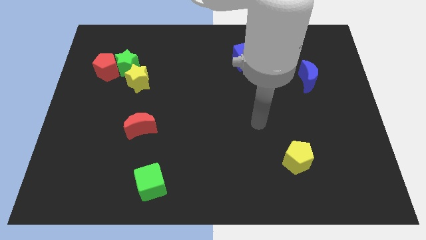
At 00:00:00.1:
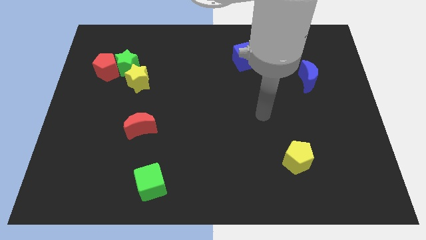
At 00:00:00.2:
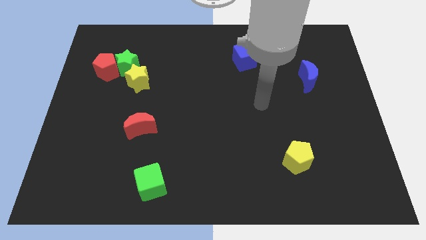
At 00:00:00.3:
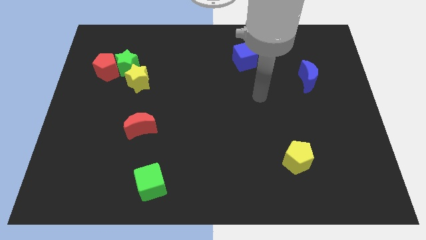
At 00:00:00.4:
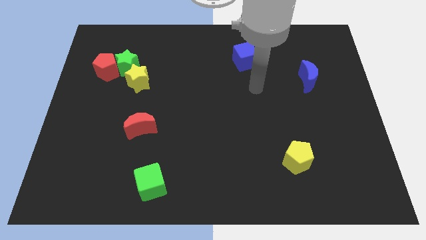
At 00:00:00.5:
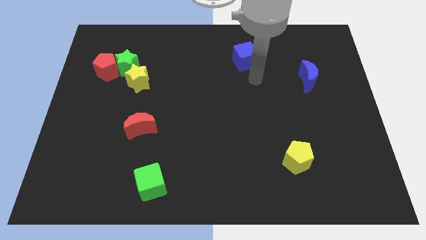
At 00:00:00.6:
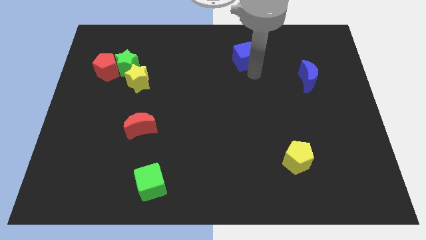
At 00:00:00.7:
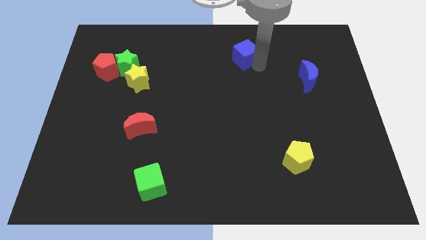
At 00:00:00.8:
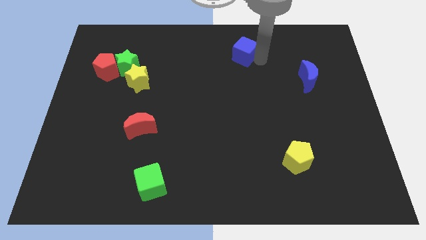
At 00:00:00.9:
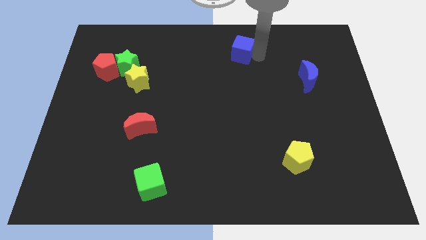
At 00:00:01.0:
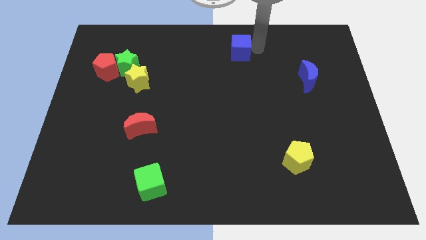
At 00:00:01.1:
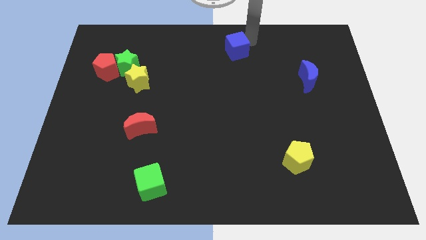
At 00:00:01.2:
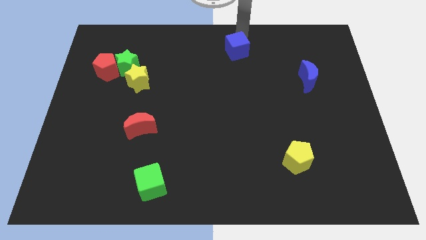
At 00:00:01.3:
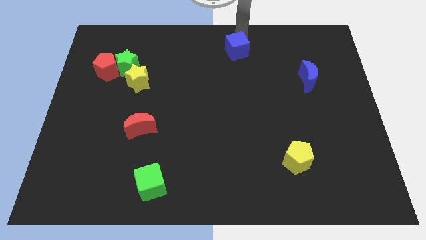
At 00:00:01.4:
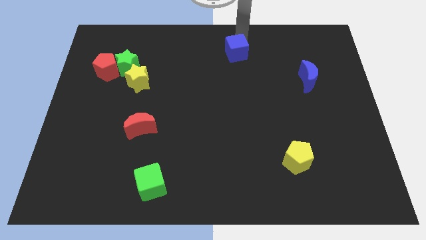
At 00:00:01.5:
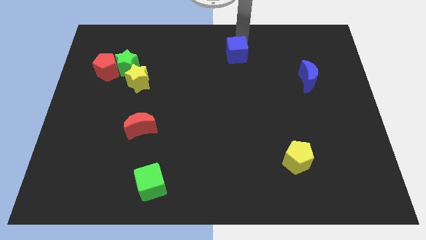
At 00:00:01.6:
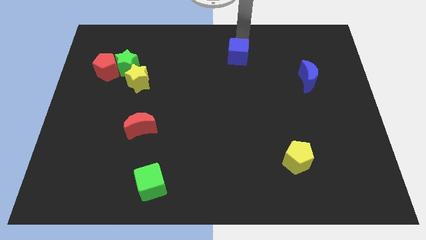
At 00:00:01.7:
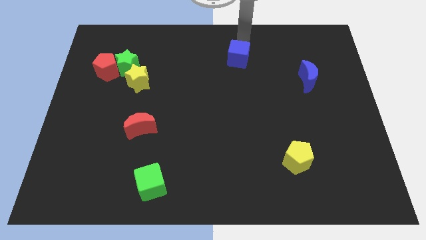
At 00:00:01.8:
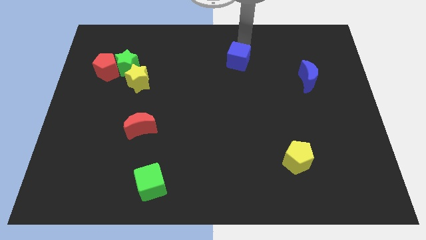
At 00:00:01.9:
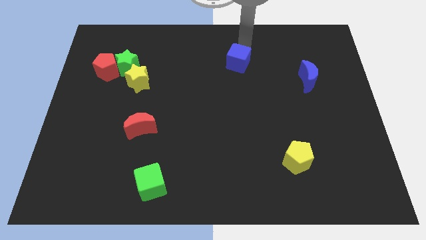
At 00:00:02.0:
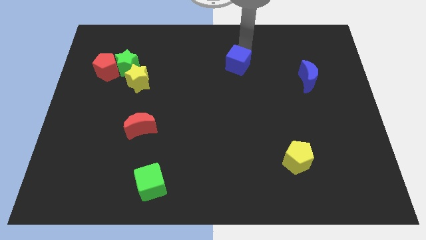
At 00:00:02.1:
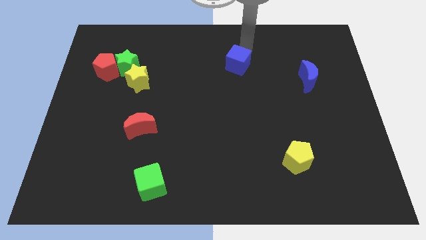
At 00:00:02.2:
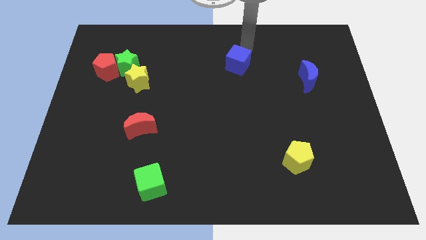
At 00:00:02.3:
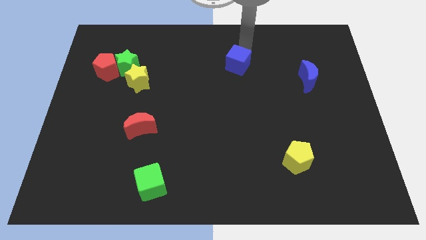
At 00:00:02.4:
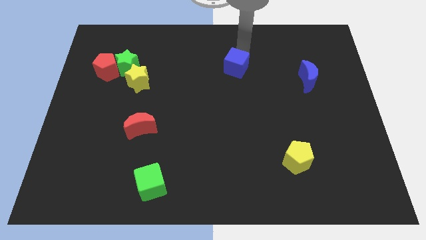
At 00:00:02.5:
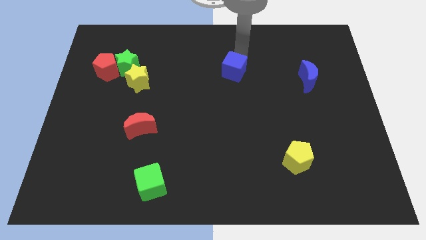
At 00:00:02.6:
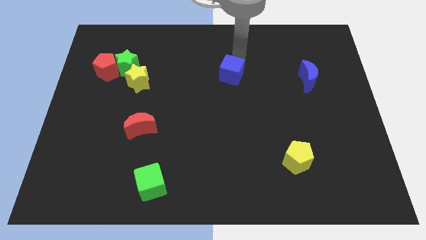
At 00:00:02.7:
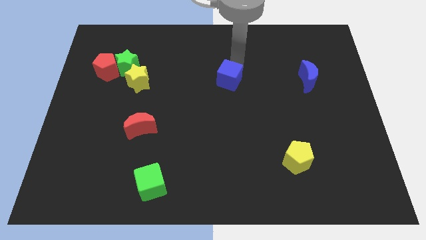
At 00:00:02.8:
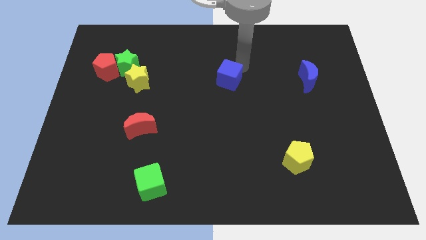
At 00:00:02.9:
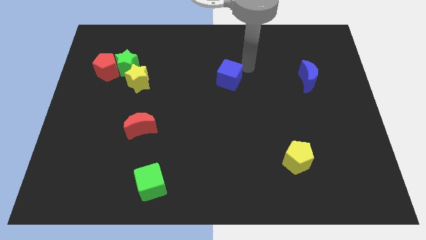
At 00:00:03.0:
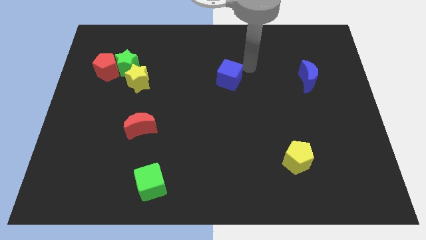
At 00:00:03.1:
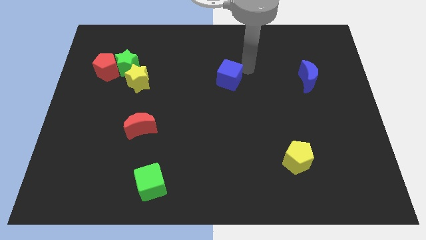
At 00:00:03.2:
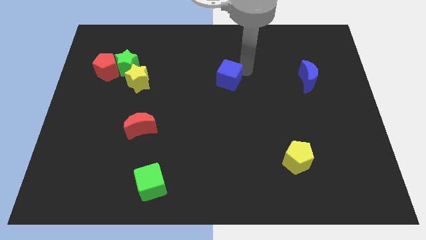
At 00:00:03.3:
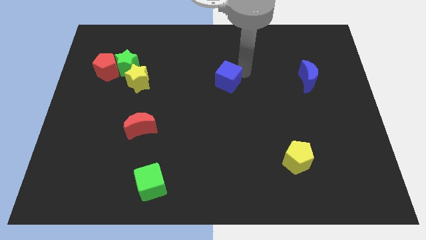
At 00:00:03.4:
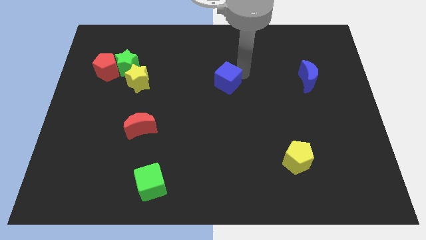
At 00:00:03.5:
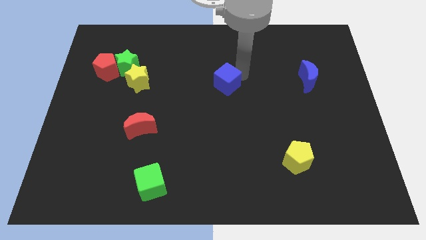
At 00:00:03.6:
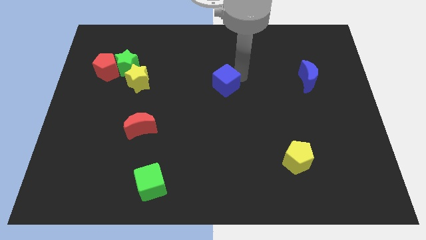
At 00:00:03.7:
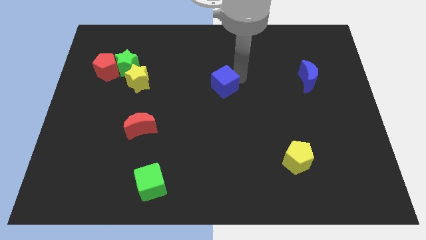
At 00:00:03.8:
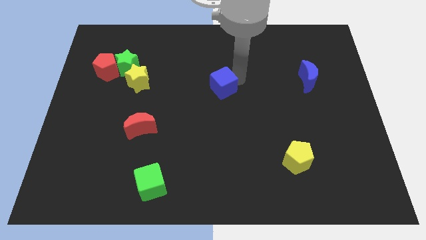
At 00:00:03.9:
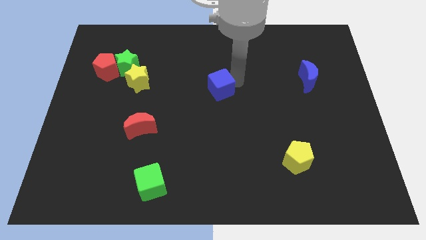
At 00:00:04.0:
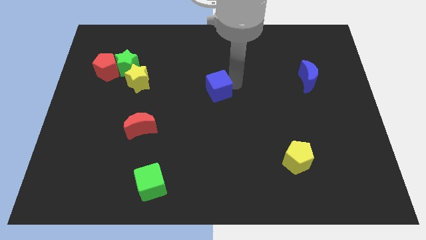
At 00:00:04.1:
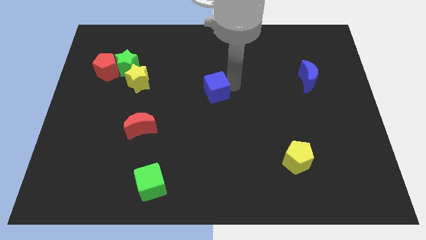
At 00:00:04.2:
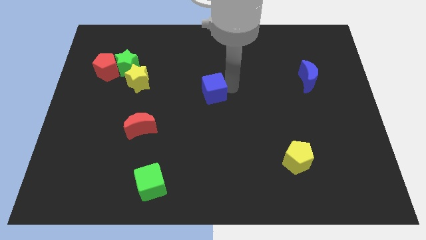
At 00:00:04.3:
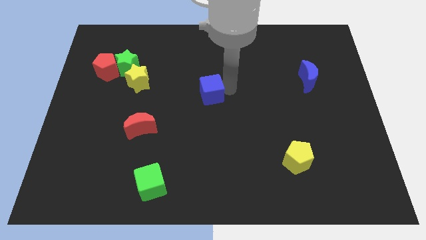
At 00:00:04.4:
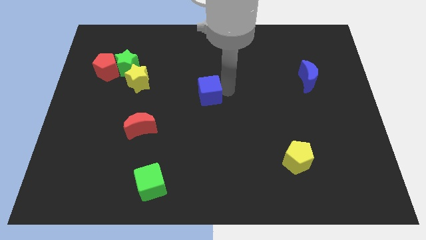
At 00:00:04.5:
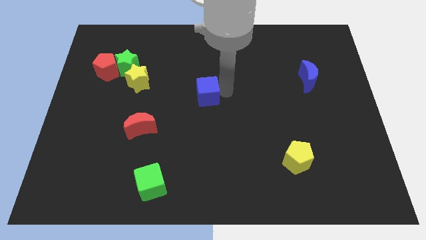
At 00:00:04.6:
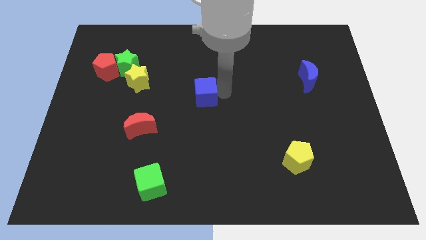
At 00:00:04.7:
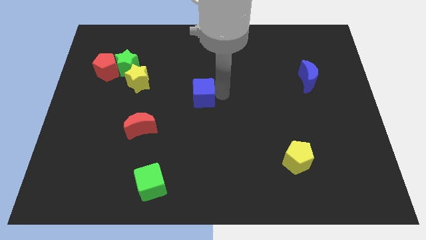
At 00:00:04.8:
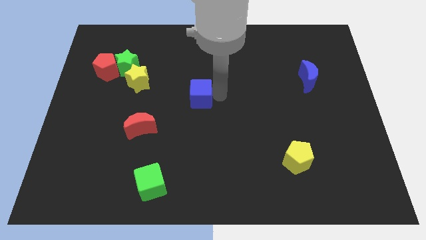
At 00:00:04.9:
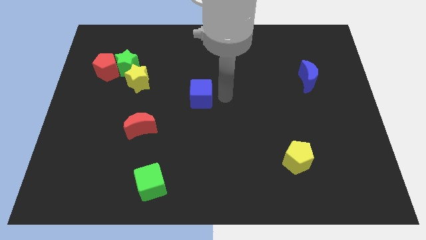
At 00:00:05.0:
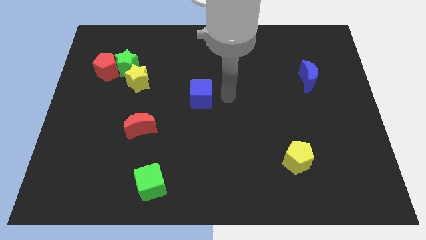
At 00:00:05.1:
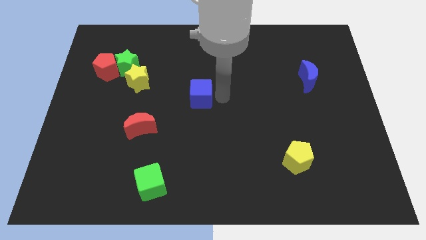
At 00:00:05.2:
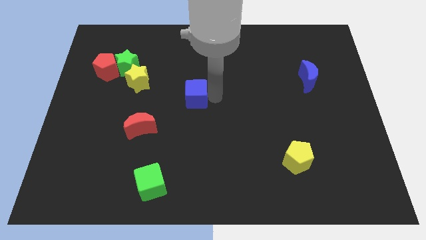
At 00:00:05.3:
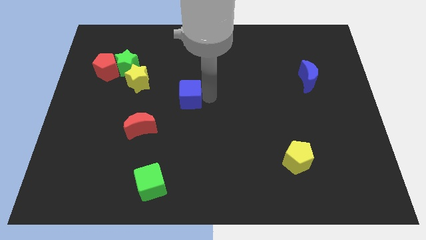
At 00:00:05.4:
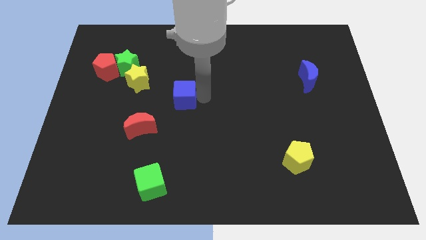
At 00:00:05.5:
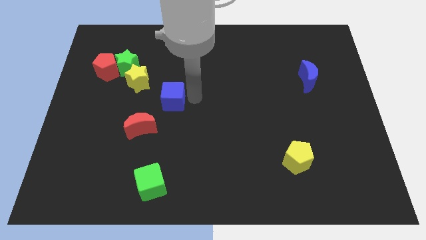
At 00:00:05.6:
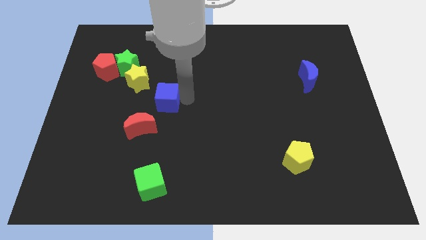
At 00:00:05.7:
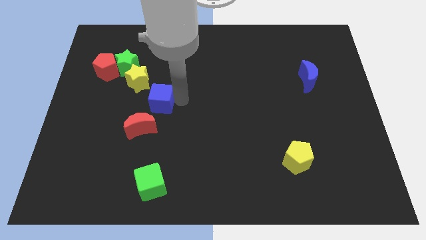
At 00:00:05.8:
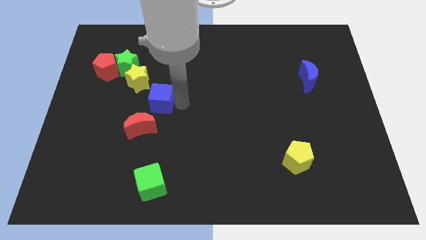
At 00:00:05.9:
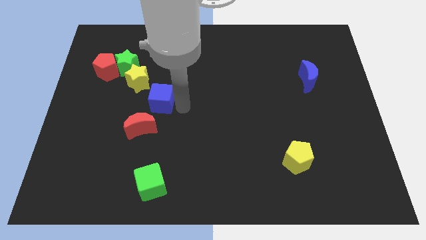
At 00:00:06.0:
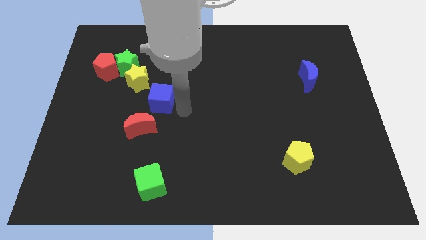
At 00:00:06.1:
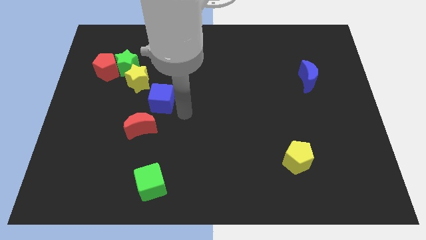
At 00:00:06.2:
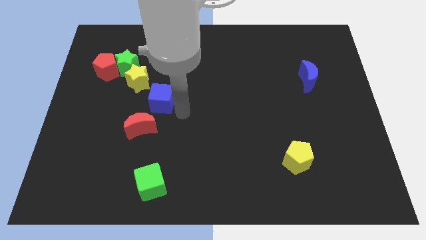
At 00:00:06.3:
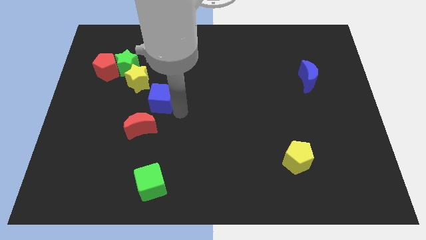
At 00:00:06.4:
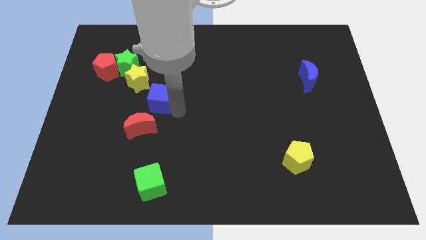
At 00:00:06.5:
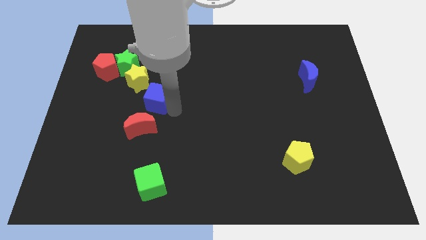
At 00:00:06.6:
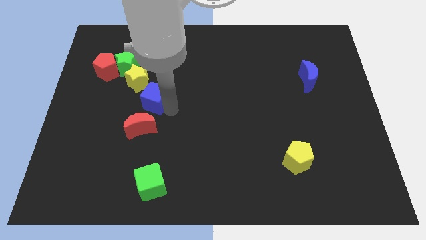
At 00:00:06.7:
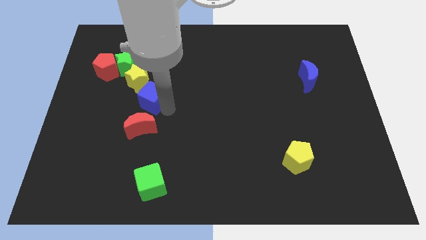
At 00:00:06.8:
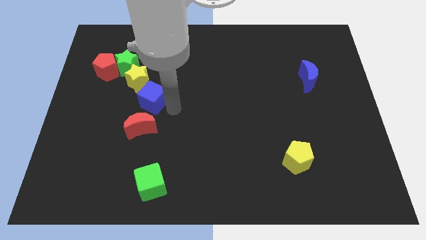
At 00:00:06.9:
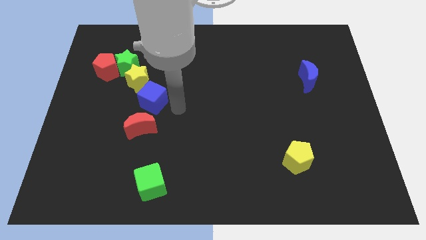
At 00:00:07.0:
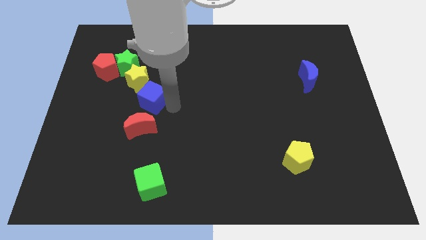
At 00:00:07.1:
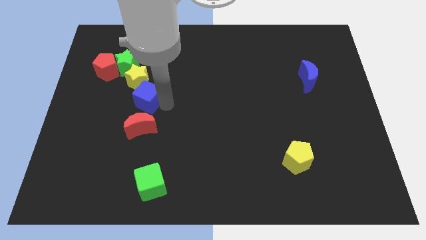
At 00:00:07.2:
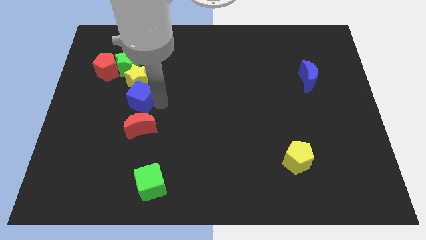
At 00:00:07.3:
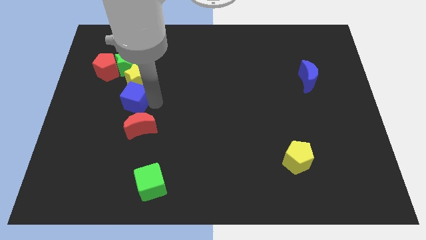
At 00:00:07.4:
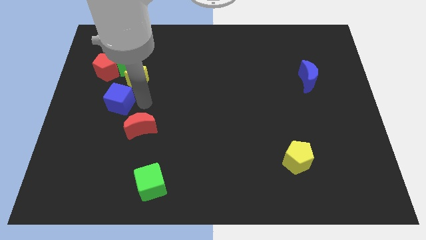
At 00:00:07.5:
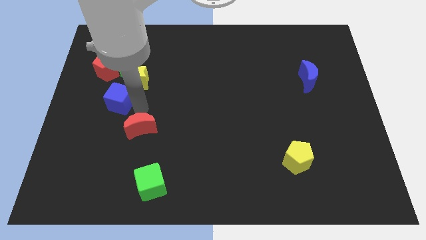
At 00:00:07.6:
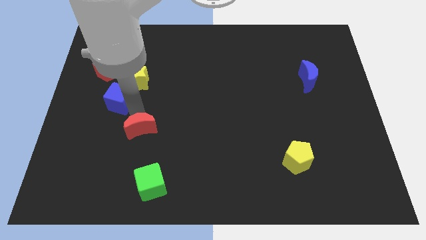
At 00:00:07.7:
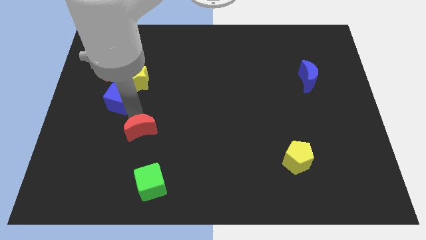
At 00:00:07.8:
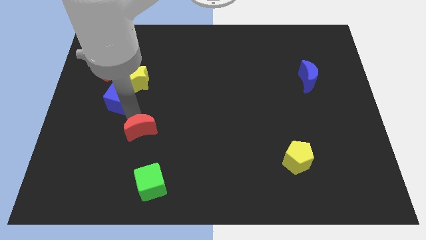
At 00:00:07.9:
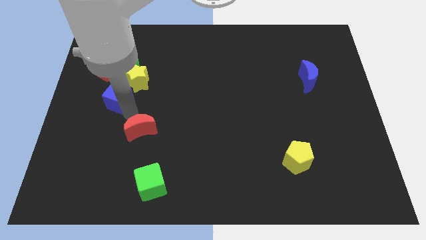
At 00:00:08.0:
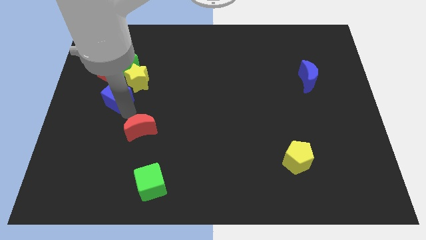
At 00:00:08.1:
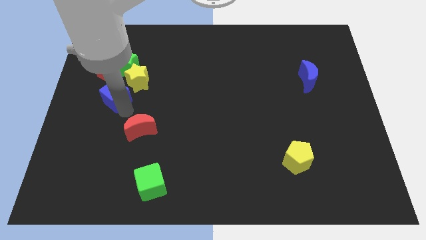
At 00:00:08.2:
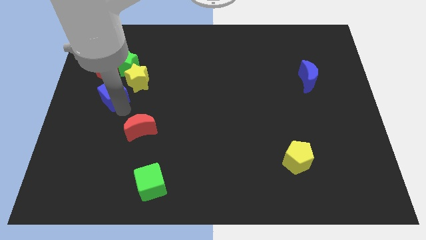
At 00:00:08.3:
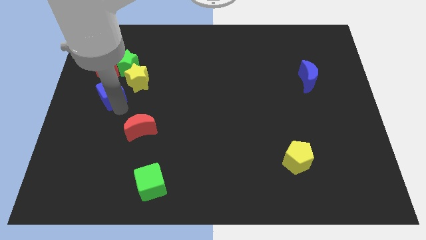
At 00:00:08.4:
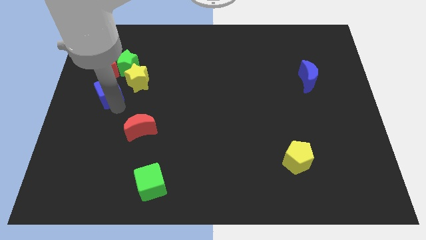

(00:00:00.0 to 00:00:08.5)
push the blue cube diagonally down and to the left of the green star
